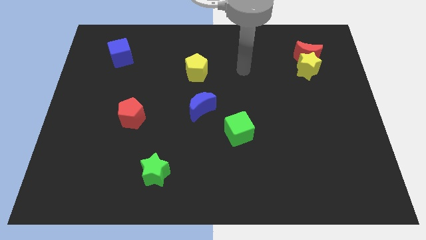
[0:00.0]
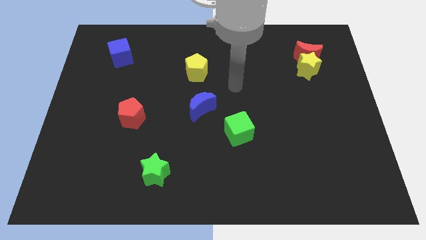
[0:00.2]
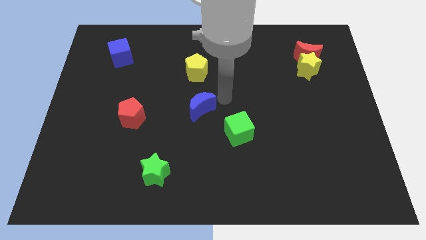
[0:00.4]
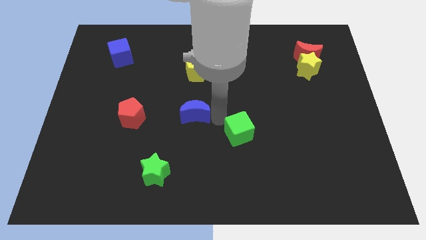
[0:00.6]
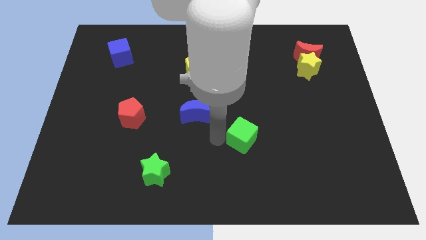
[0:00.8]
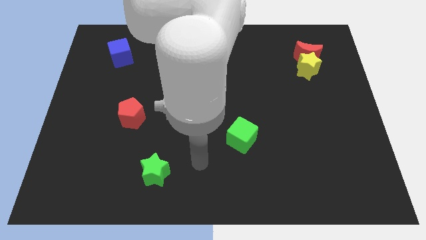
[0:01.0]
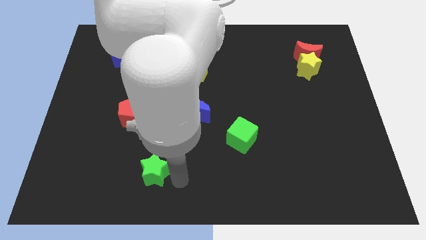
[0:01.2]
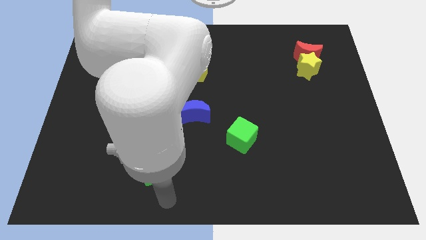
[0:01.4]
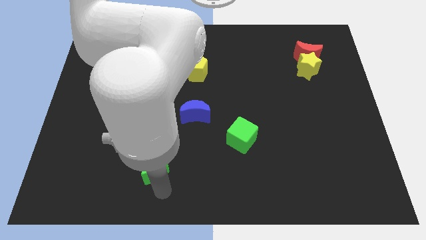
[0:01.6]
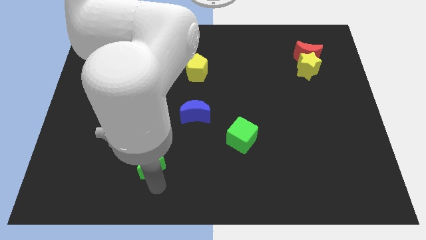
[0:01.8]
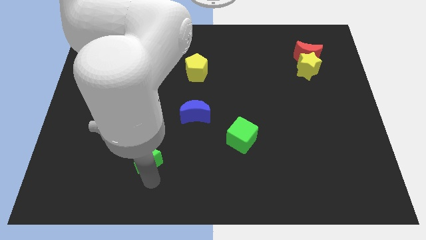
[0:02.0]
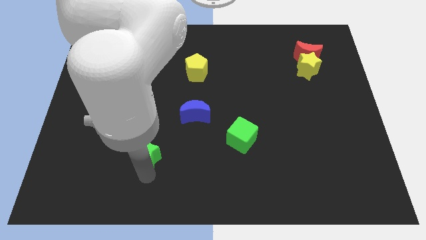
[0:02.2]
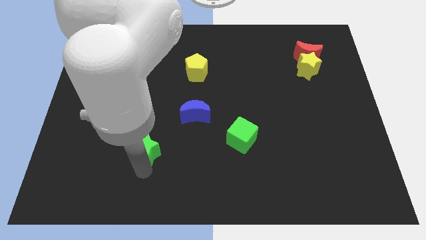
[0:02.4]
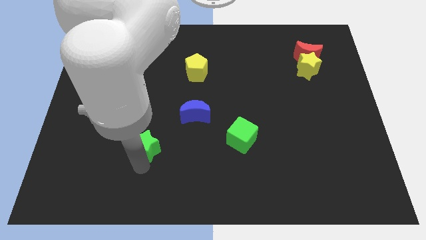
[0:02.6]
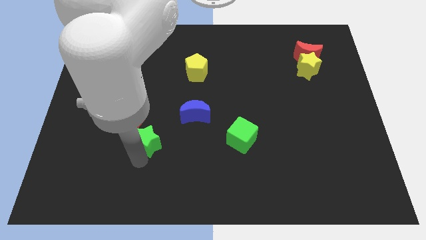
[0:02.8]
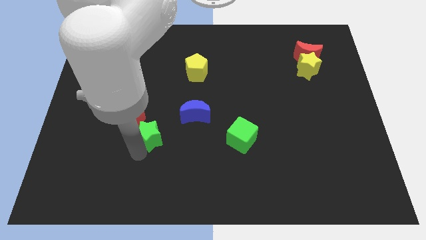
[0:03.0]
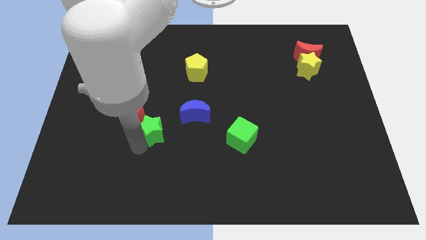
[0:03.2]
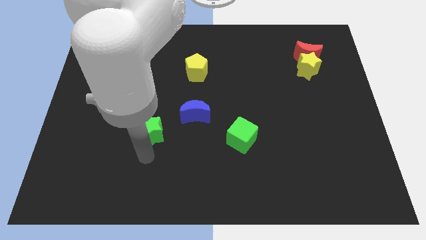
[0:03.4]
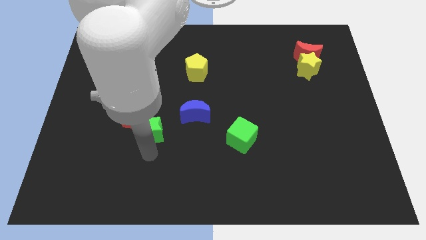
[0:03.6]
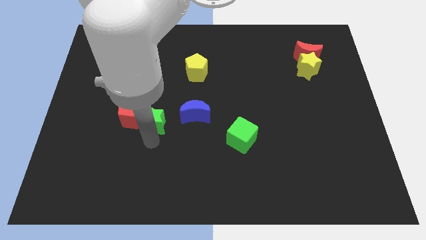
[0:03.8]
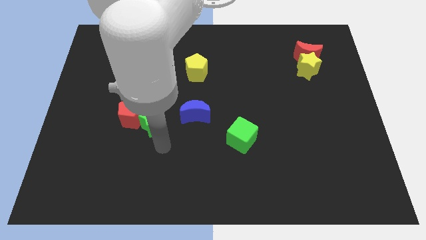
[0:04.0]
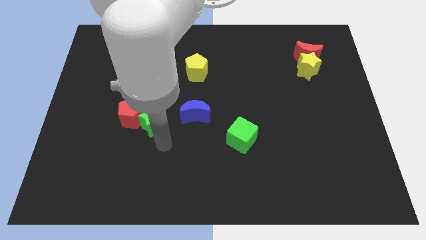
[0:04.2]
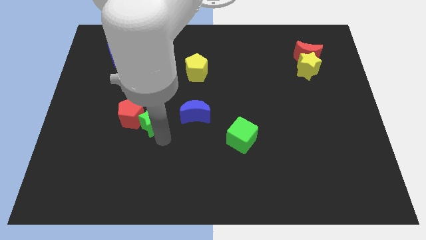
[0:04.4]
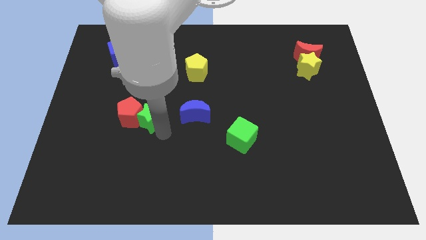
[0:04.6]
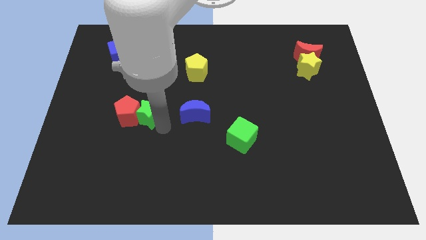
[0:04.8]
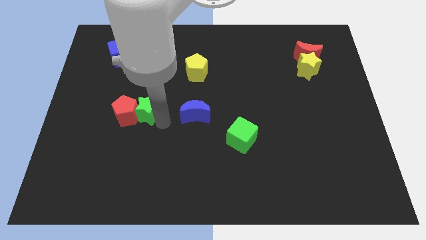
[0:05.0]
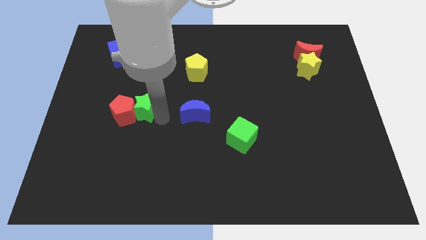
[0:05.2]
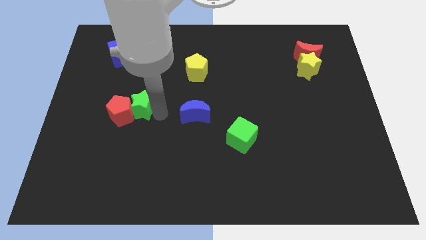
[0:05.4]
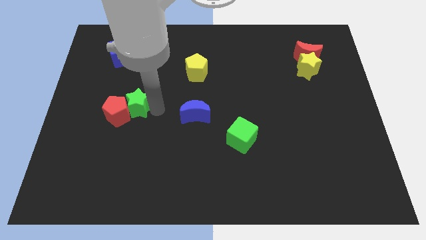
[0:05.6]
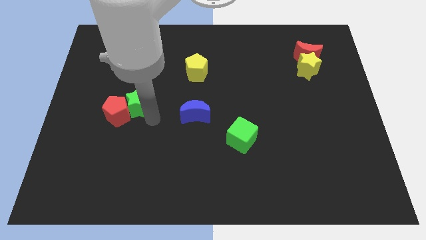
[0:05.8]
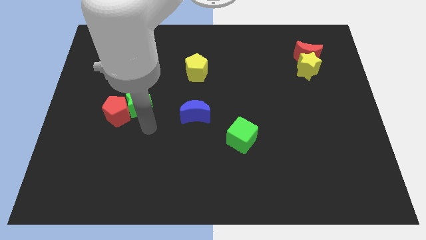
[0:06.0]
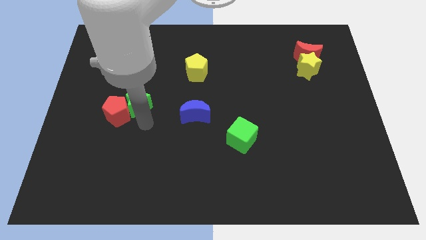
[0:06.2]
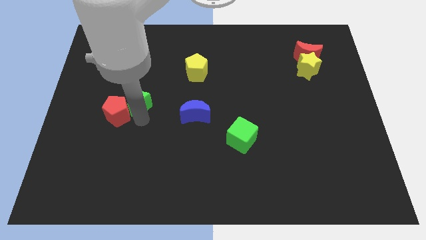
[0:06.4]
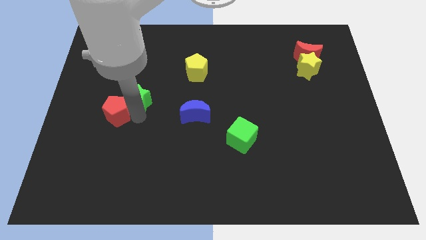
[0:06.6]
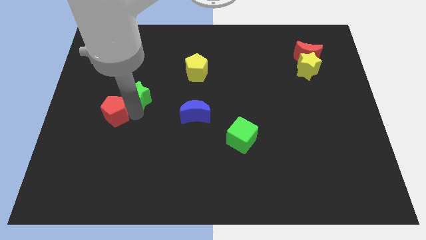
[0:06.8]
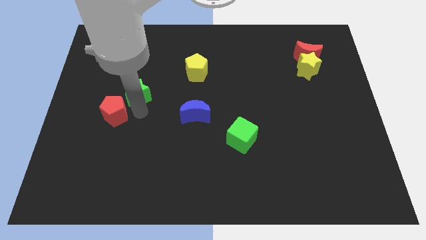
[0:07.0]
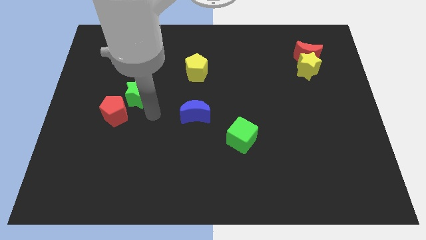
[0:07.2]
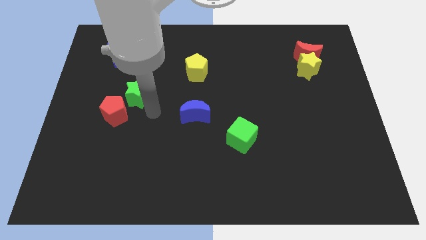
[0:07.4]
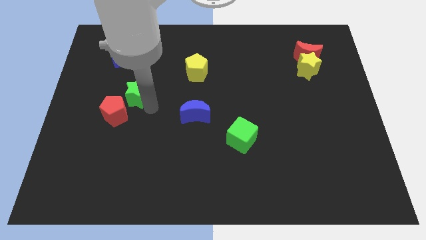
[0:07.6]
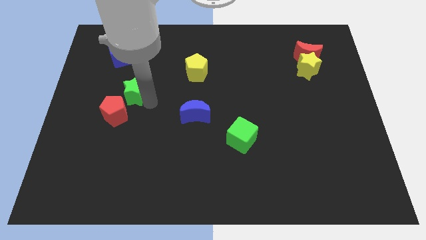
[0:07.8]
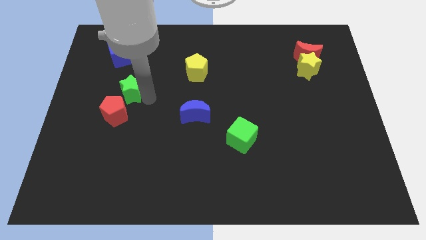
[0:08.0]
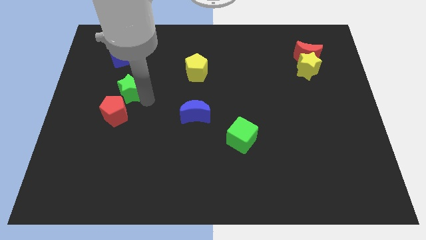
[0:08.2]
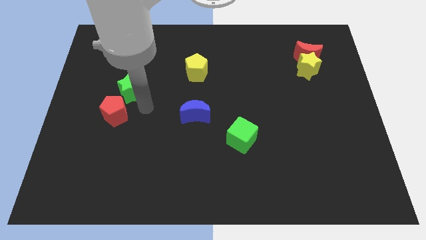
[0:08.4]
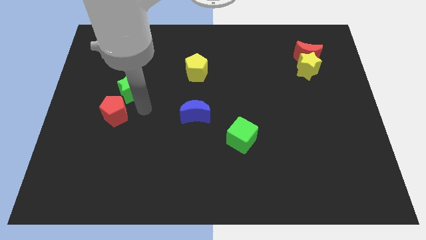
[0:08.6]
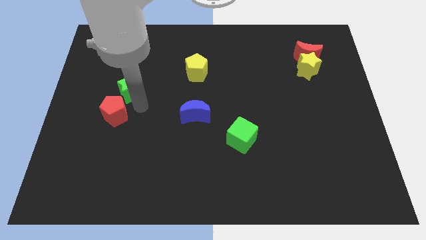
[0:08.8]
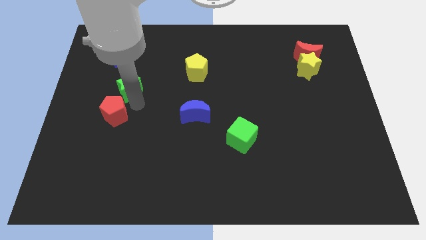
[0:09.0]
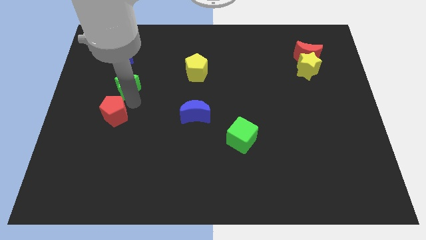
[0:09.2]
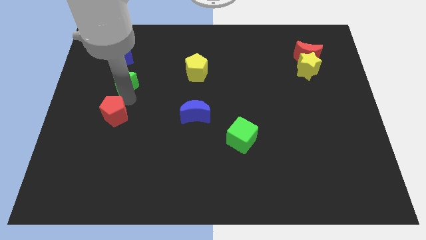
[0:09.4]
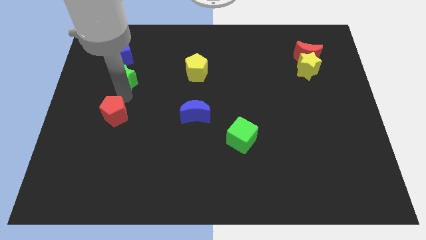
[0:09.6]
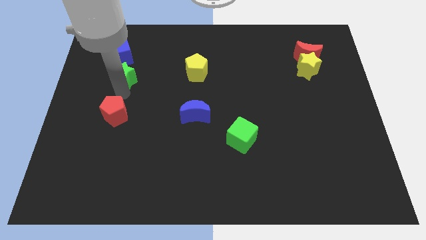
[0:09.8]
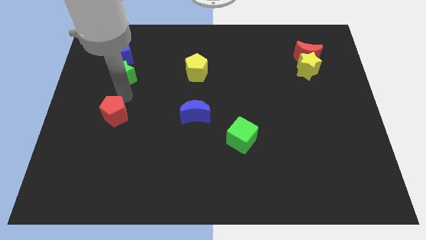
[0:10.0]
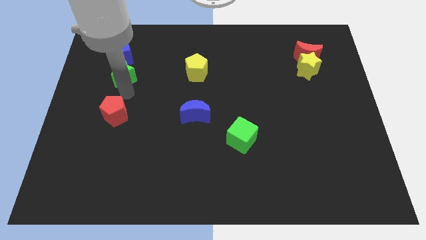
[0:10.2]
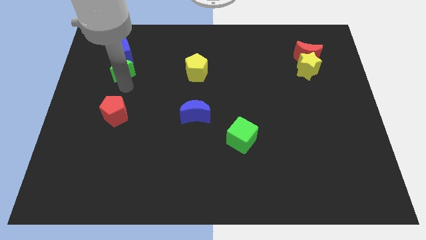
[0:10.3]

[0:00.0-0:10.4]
put the green star towards the blue cube

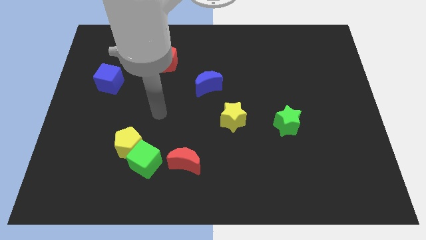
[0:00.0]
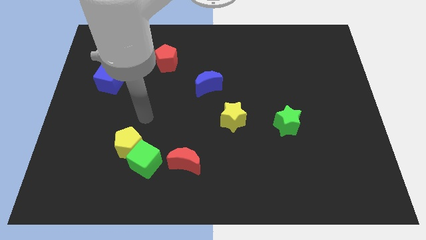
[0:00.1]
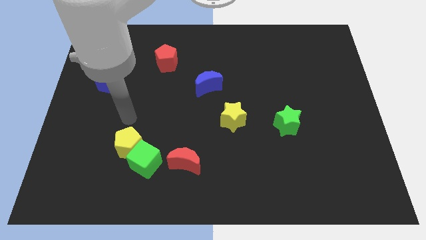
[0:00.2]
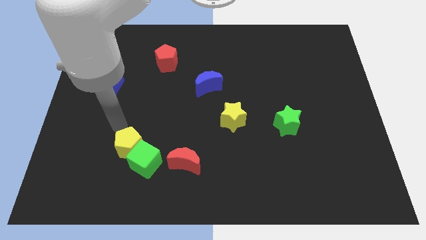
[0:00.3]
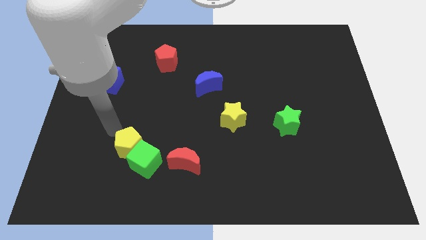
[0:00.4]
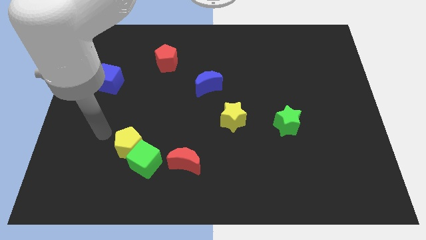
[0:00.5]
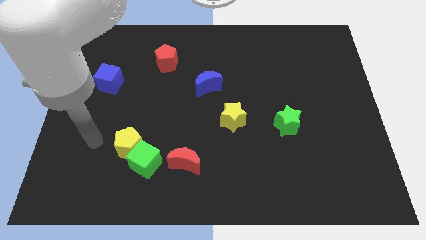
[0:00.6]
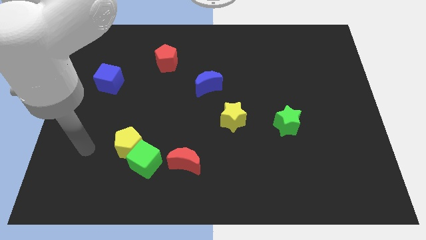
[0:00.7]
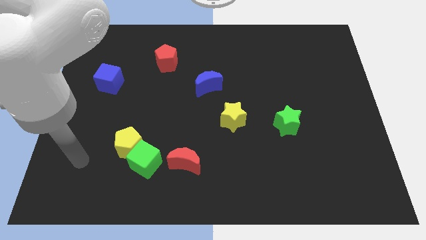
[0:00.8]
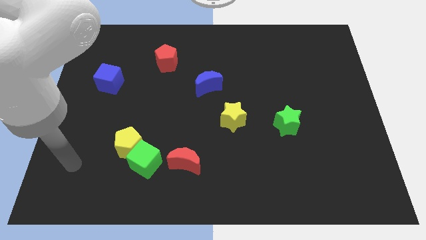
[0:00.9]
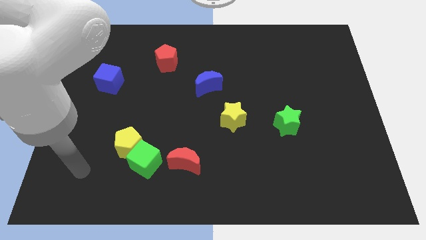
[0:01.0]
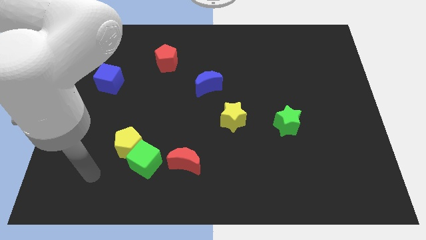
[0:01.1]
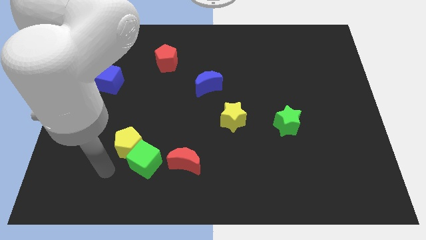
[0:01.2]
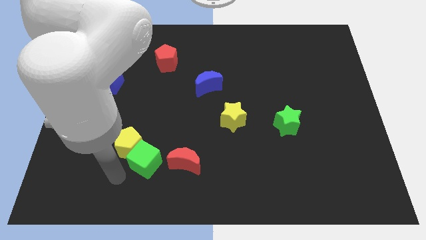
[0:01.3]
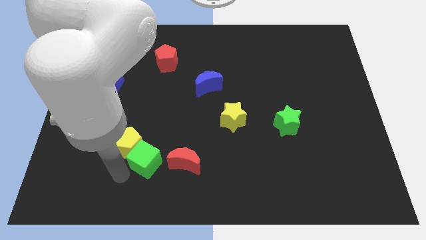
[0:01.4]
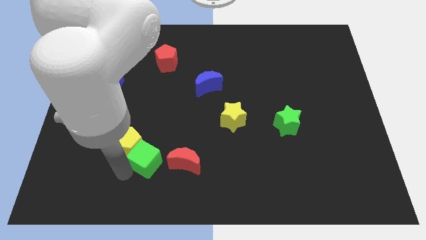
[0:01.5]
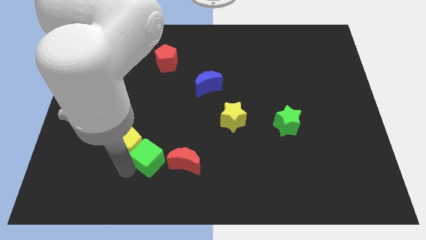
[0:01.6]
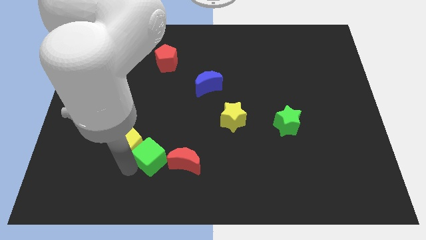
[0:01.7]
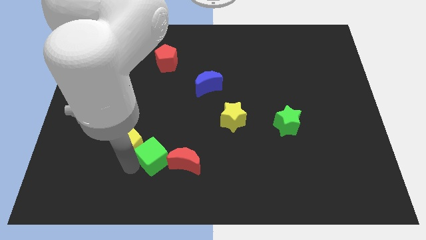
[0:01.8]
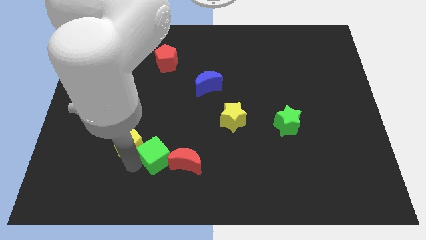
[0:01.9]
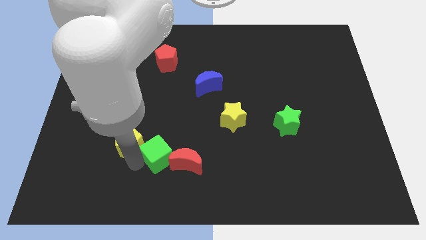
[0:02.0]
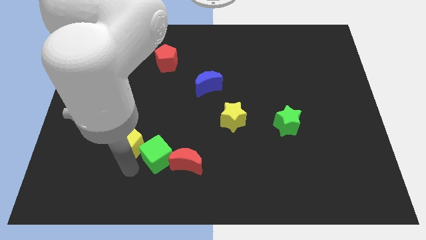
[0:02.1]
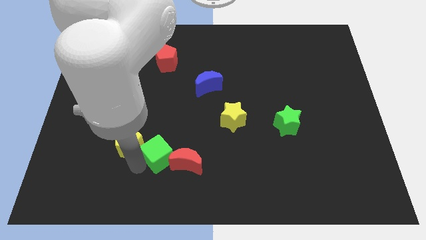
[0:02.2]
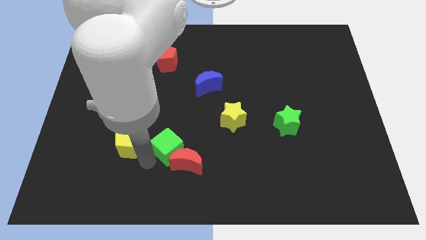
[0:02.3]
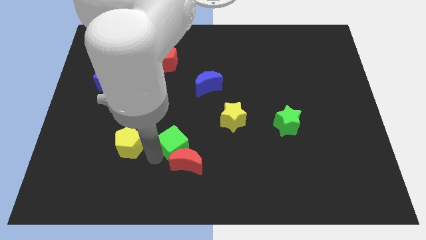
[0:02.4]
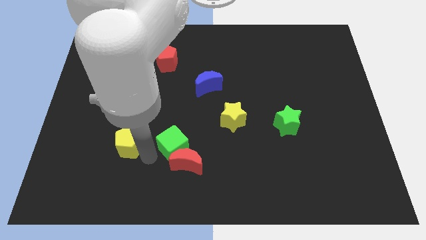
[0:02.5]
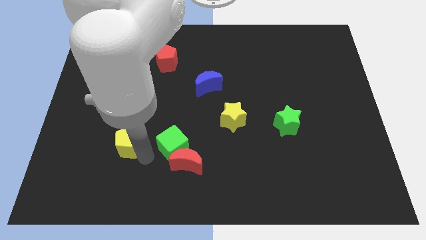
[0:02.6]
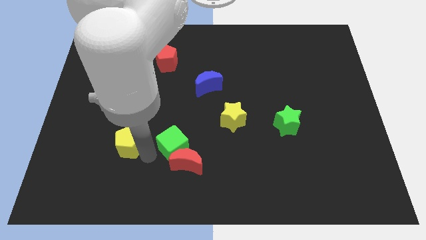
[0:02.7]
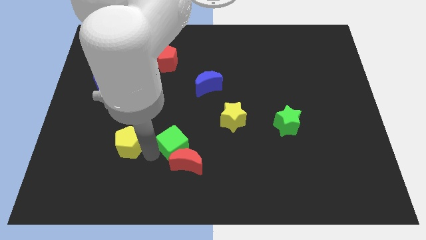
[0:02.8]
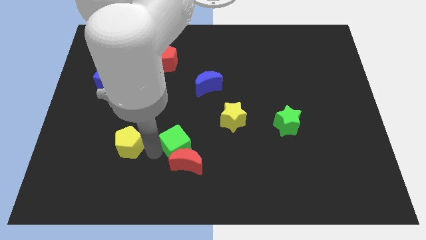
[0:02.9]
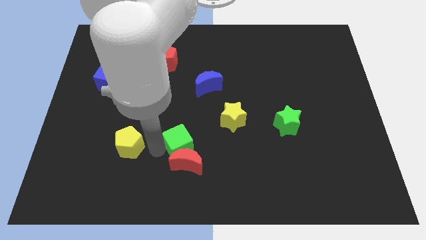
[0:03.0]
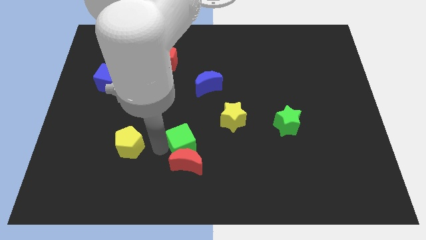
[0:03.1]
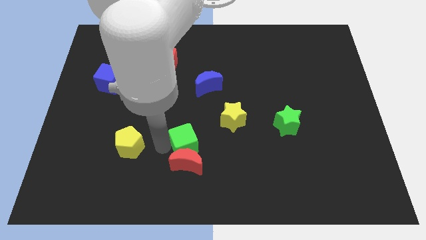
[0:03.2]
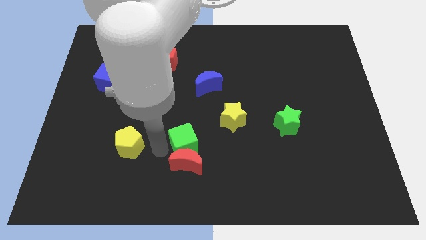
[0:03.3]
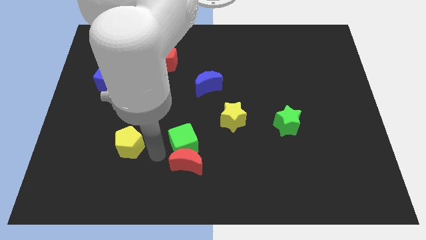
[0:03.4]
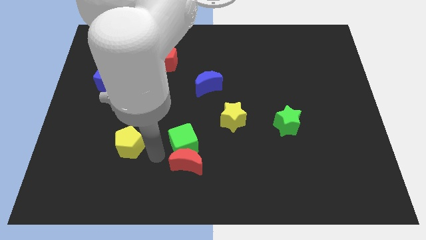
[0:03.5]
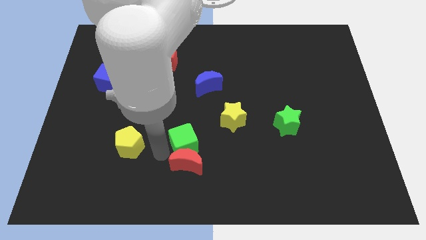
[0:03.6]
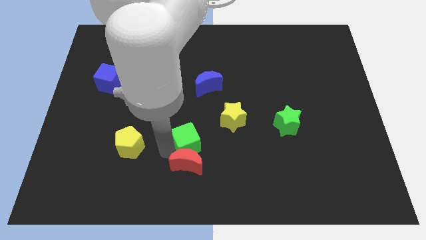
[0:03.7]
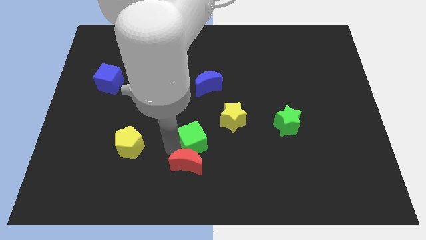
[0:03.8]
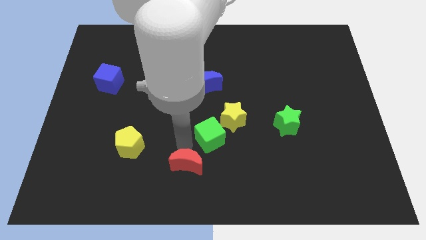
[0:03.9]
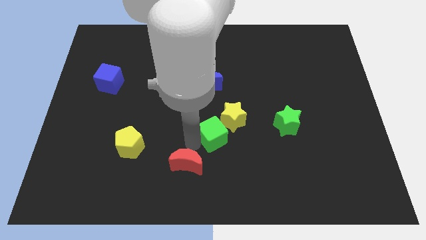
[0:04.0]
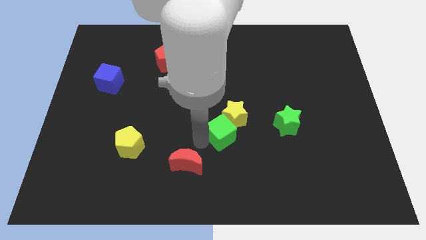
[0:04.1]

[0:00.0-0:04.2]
slide the green cube to the yellow star
